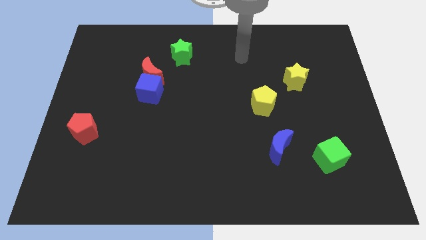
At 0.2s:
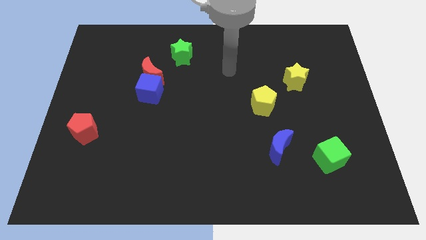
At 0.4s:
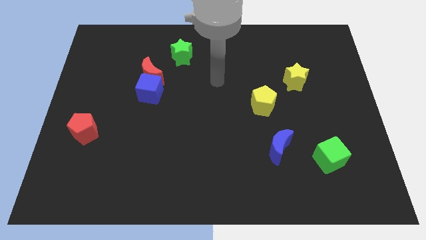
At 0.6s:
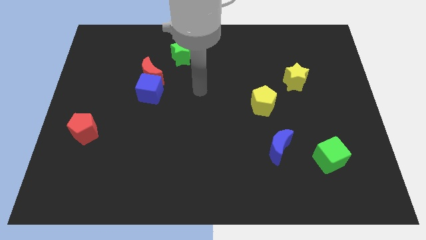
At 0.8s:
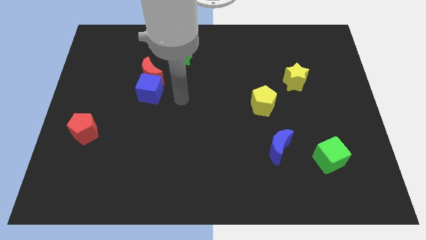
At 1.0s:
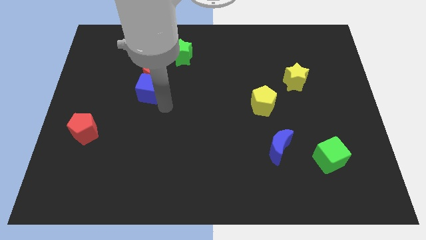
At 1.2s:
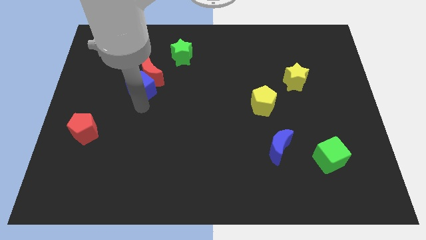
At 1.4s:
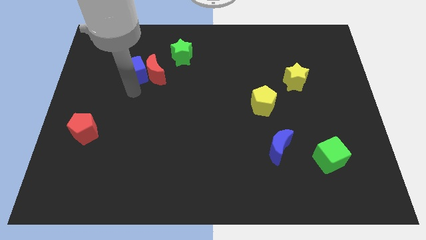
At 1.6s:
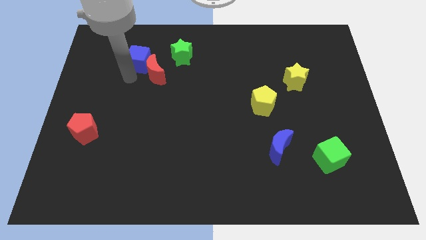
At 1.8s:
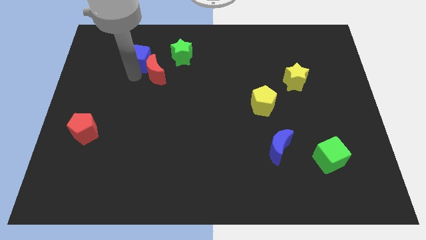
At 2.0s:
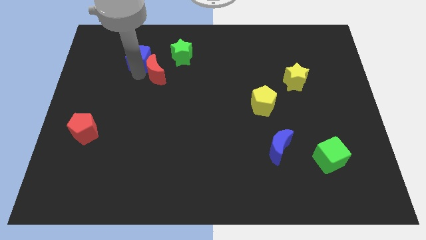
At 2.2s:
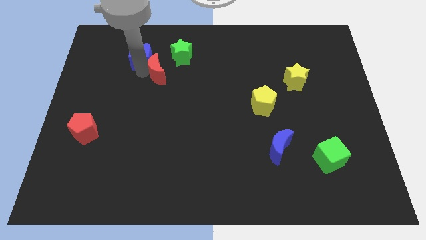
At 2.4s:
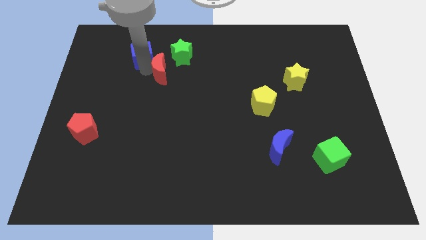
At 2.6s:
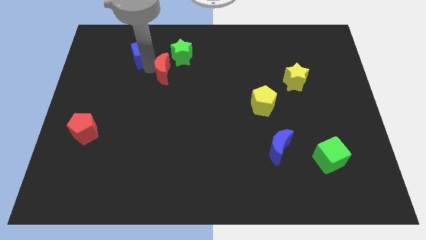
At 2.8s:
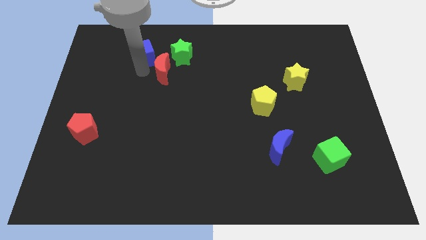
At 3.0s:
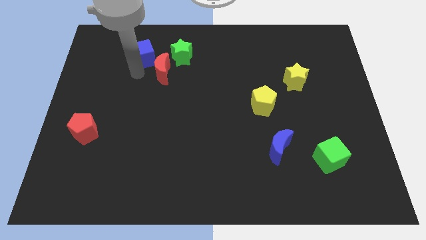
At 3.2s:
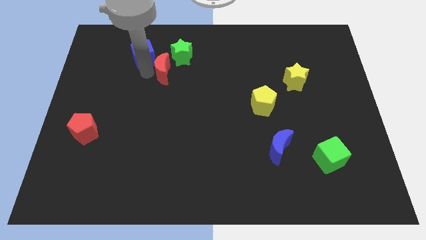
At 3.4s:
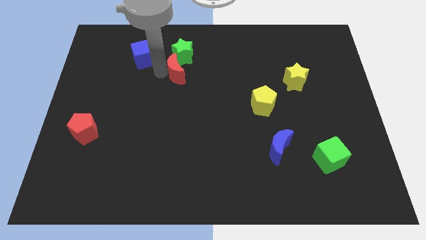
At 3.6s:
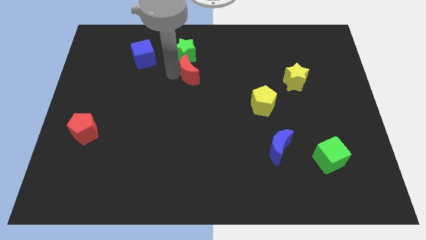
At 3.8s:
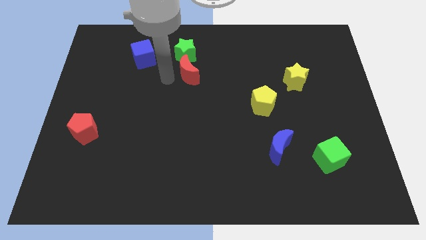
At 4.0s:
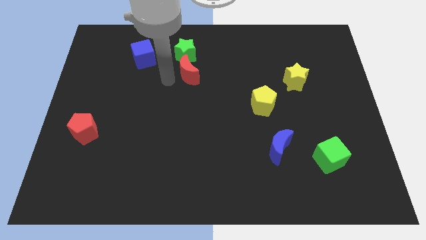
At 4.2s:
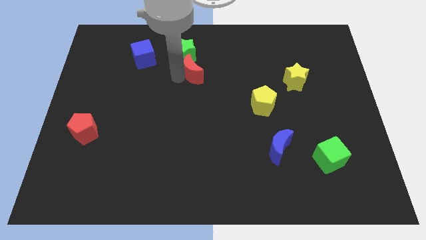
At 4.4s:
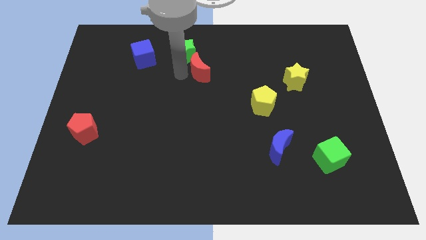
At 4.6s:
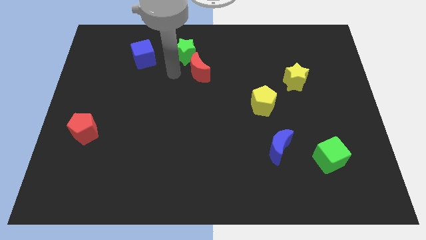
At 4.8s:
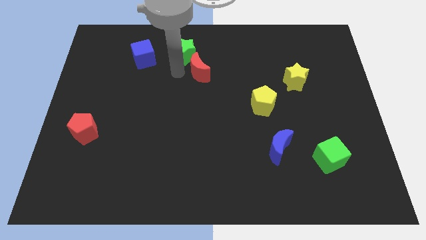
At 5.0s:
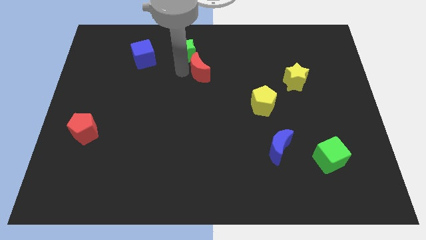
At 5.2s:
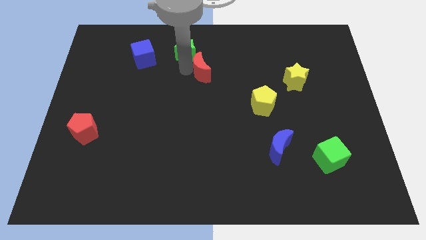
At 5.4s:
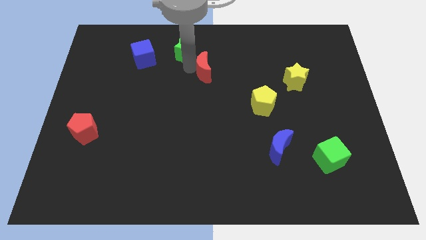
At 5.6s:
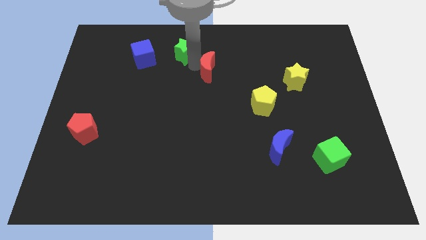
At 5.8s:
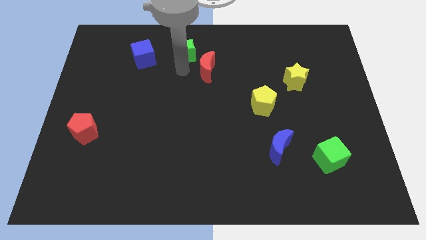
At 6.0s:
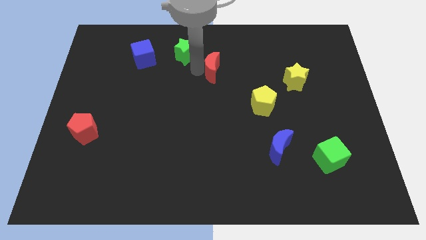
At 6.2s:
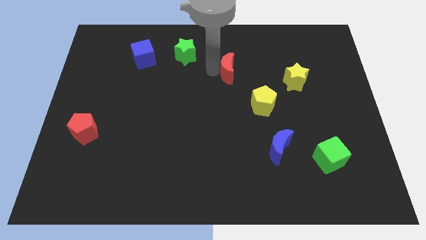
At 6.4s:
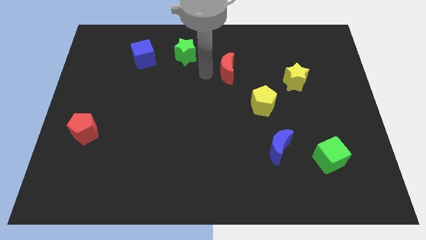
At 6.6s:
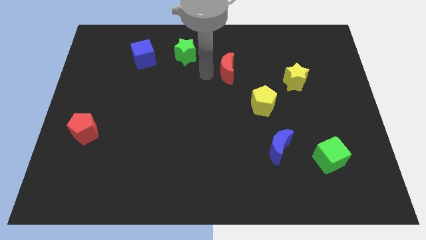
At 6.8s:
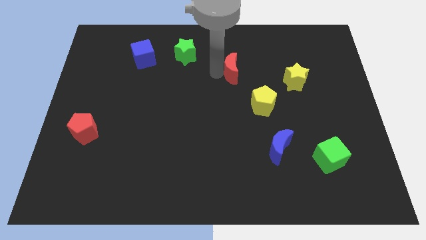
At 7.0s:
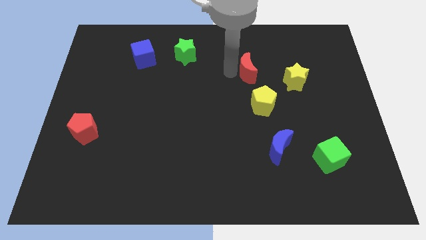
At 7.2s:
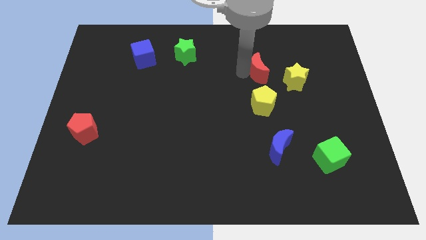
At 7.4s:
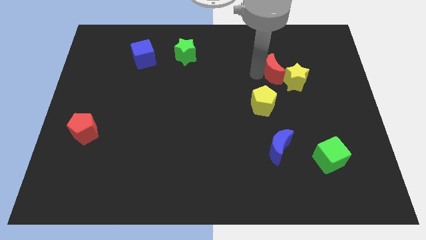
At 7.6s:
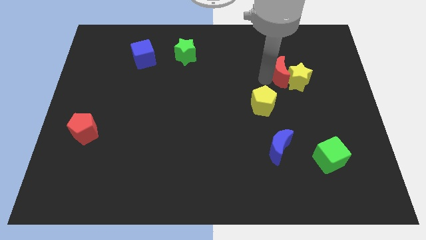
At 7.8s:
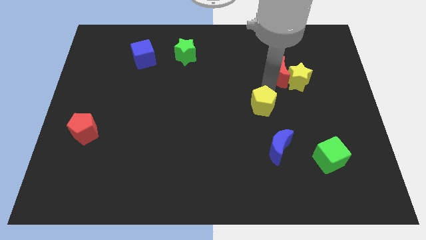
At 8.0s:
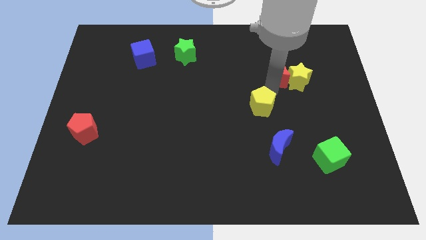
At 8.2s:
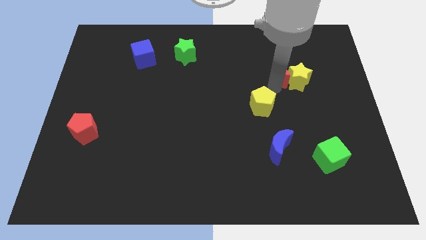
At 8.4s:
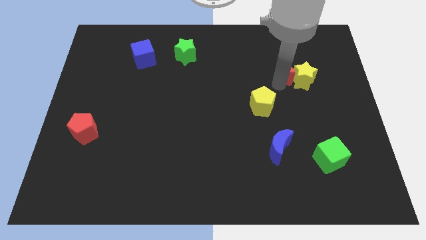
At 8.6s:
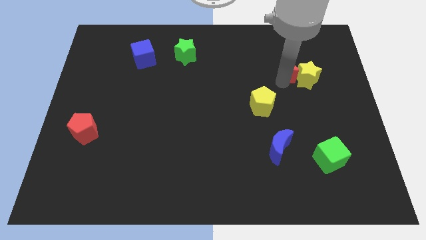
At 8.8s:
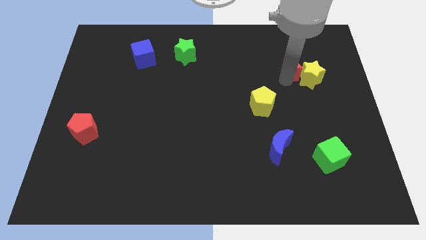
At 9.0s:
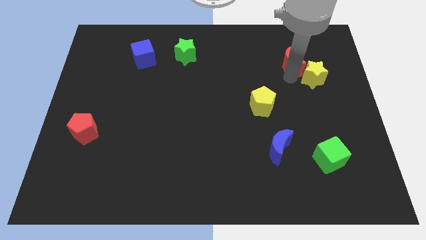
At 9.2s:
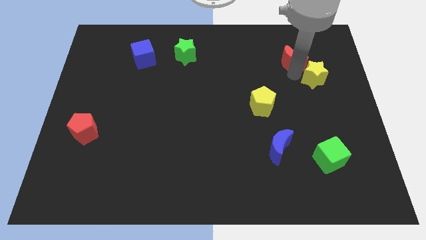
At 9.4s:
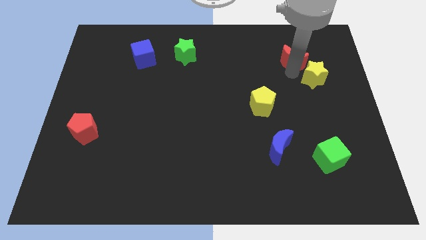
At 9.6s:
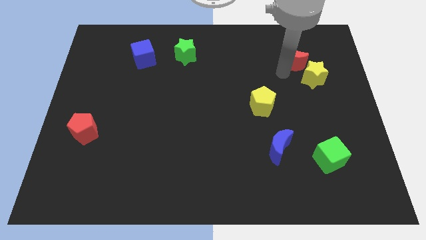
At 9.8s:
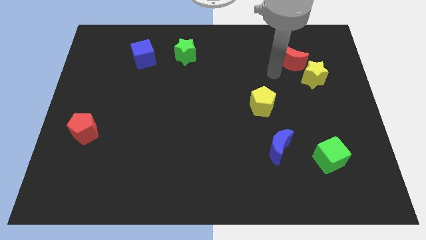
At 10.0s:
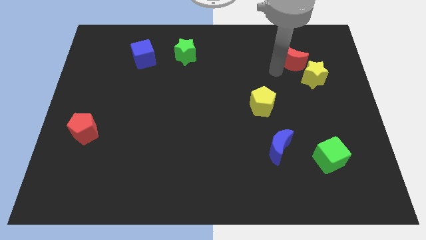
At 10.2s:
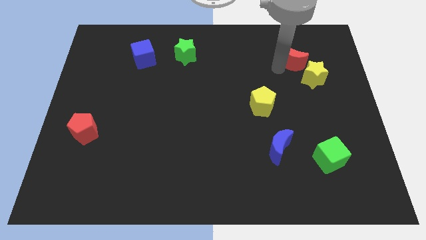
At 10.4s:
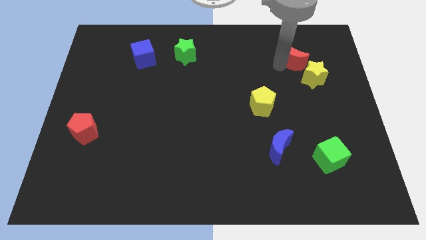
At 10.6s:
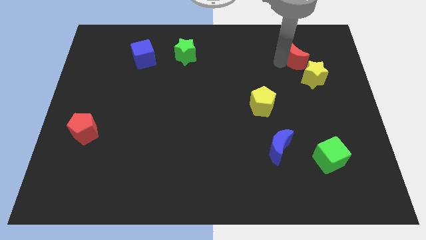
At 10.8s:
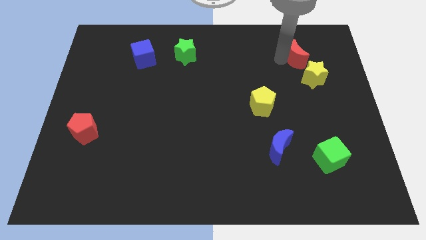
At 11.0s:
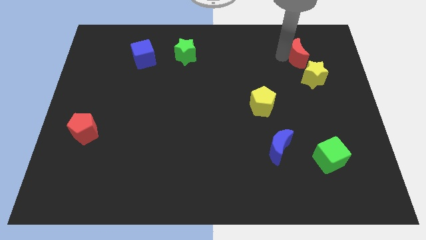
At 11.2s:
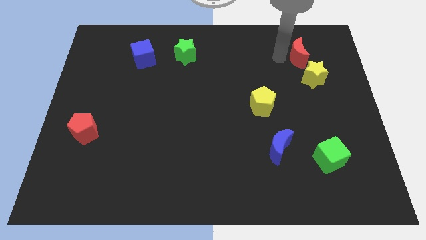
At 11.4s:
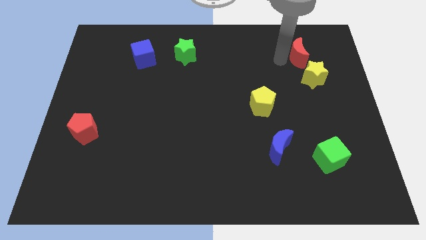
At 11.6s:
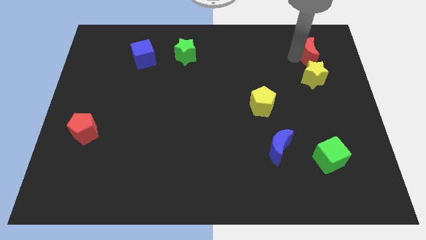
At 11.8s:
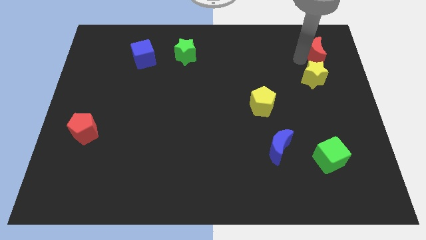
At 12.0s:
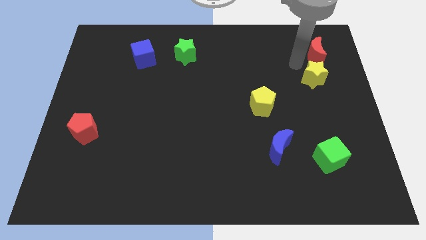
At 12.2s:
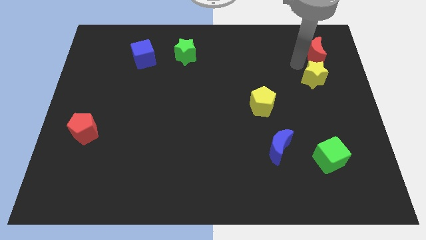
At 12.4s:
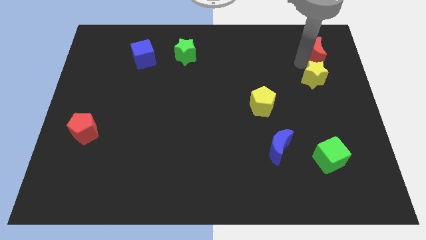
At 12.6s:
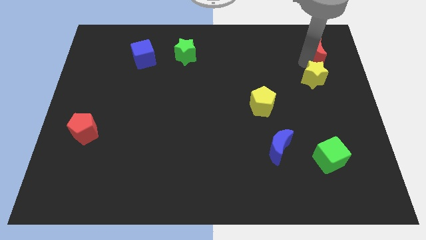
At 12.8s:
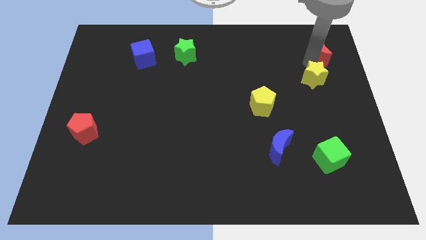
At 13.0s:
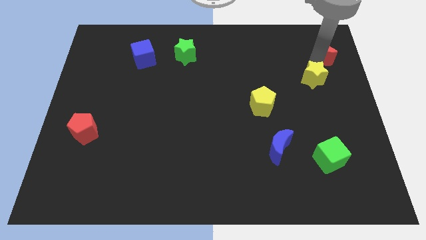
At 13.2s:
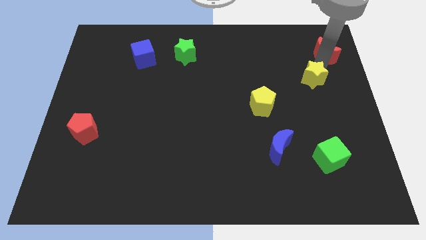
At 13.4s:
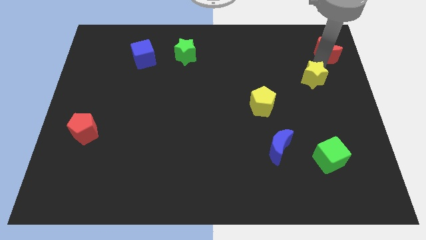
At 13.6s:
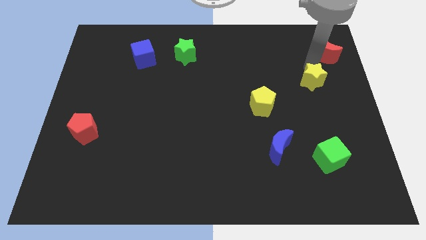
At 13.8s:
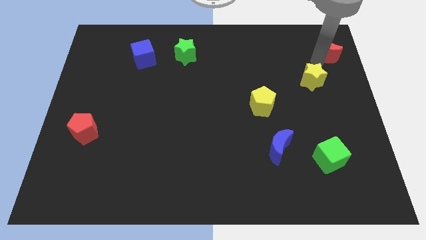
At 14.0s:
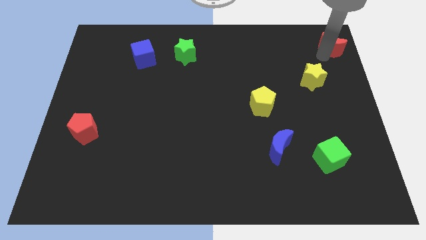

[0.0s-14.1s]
push the red moon to the top right

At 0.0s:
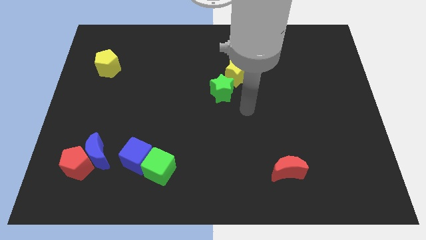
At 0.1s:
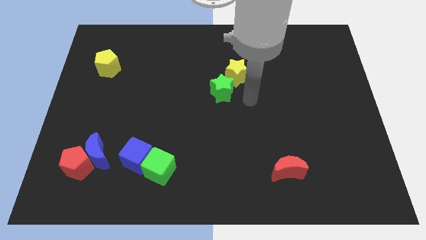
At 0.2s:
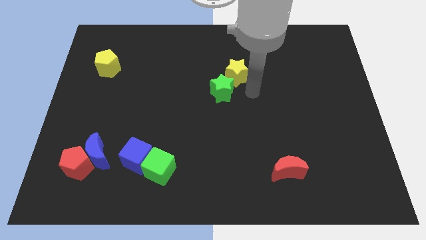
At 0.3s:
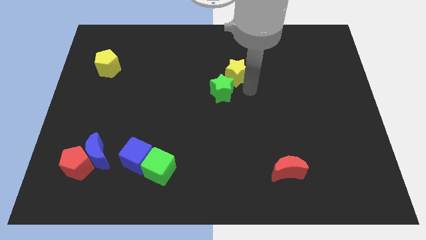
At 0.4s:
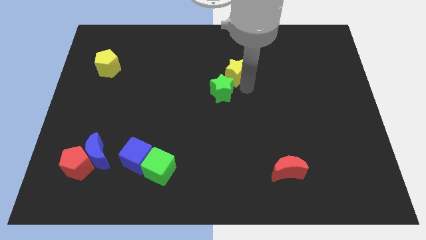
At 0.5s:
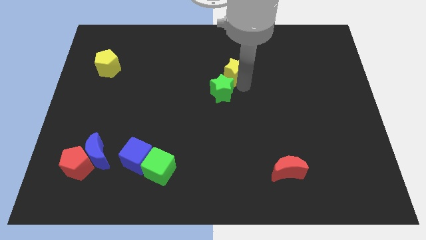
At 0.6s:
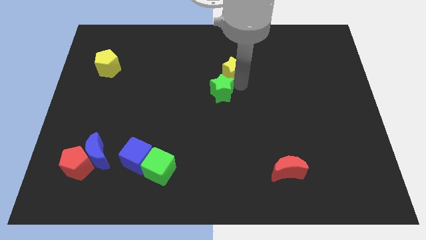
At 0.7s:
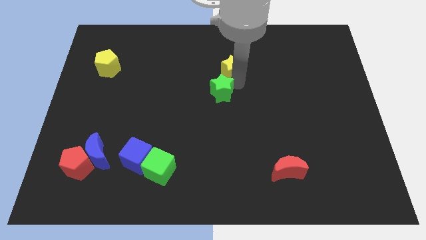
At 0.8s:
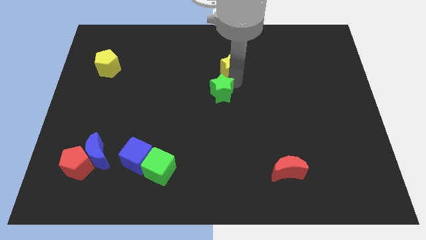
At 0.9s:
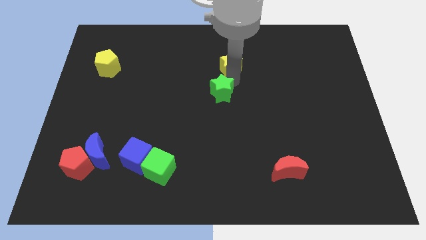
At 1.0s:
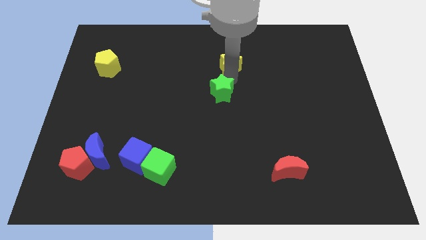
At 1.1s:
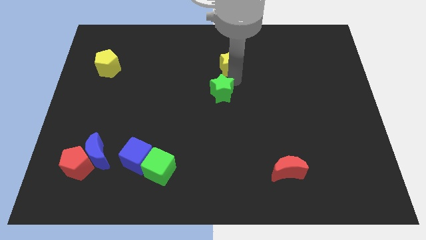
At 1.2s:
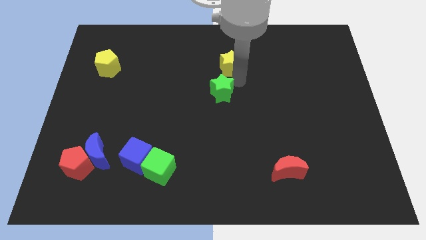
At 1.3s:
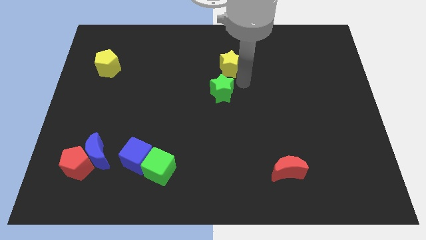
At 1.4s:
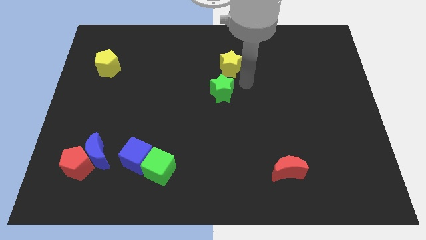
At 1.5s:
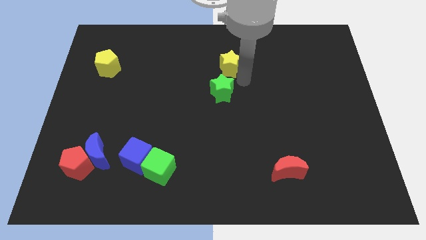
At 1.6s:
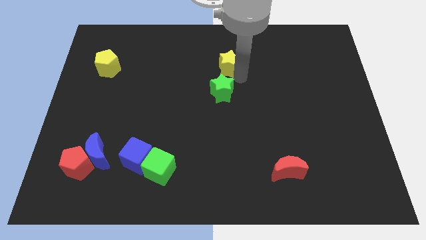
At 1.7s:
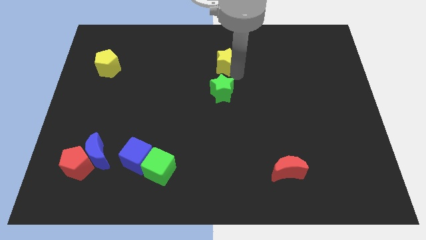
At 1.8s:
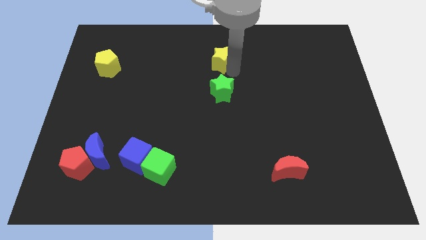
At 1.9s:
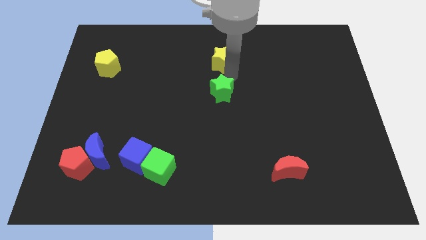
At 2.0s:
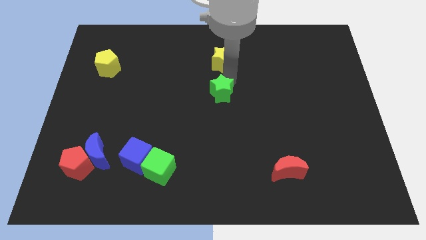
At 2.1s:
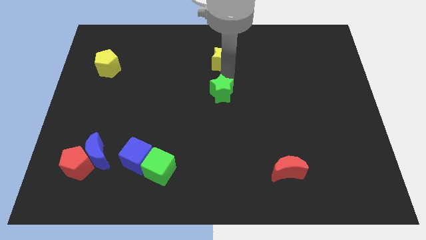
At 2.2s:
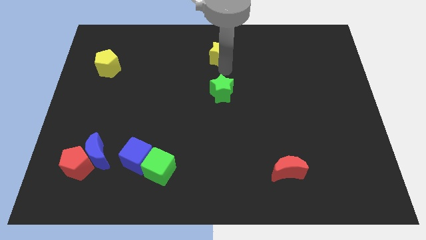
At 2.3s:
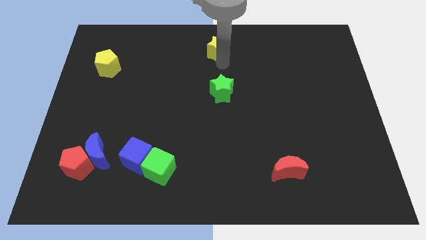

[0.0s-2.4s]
slide the yellow star to the towards your base
